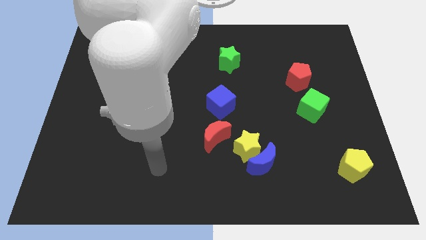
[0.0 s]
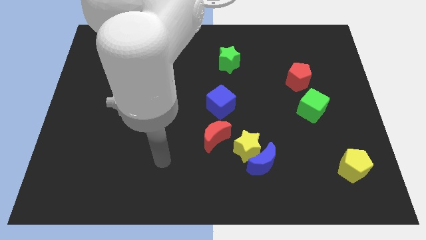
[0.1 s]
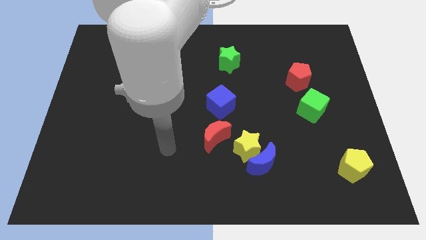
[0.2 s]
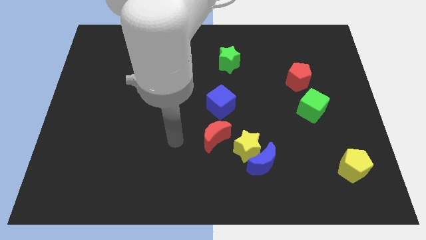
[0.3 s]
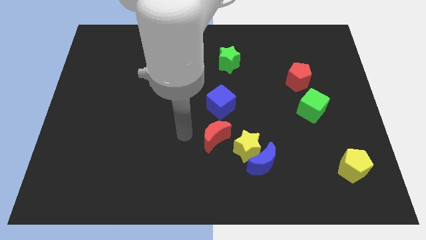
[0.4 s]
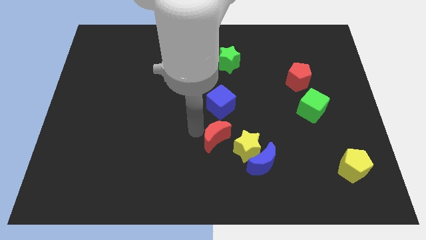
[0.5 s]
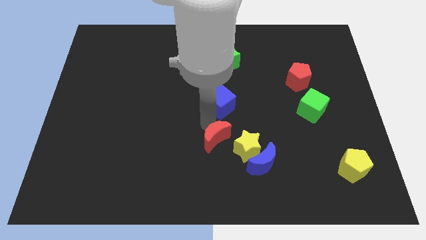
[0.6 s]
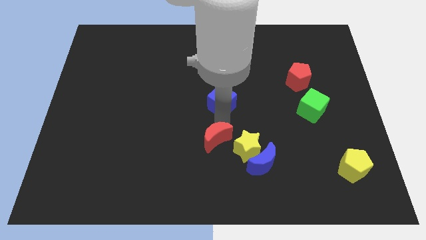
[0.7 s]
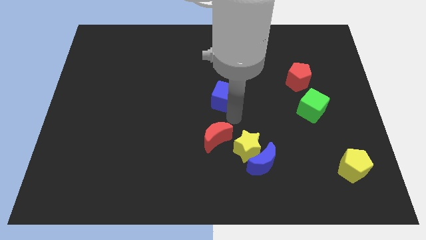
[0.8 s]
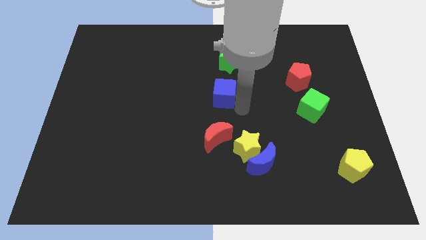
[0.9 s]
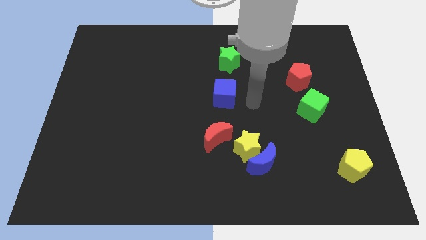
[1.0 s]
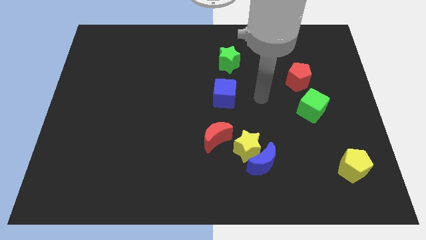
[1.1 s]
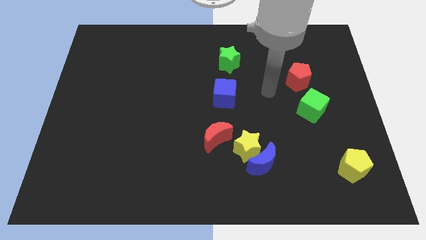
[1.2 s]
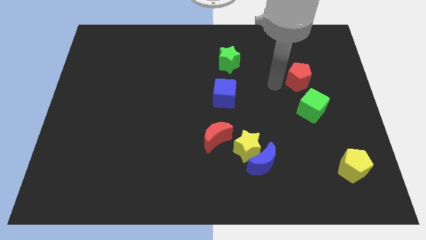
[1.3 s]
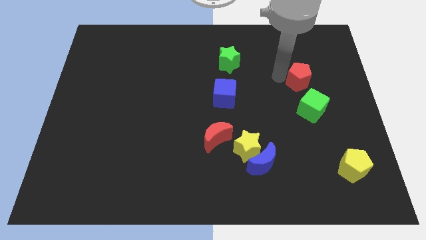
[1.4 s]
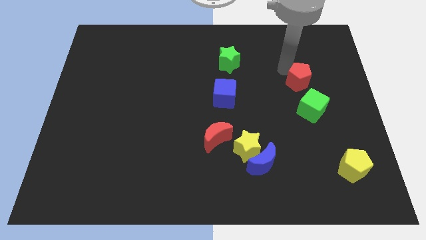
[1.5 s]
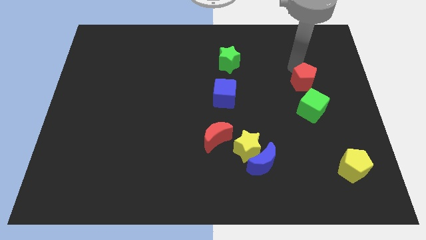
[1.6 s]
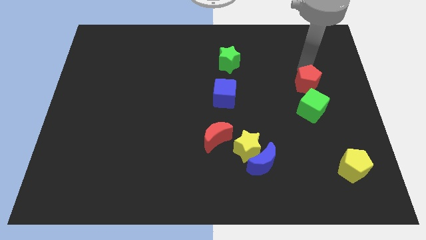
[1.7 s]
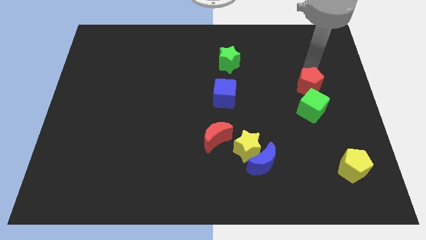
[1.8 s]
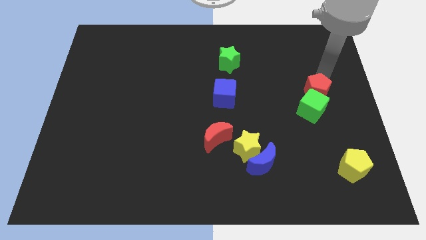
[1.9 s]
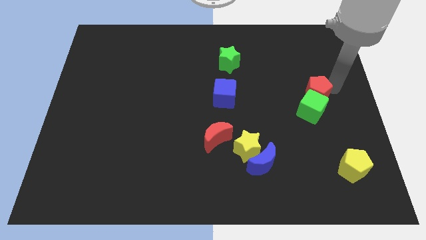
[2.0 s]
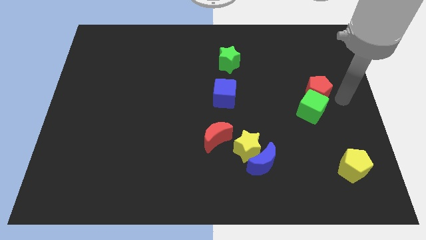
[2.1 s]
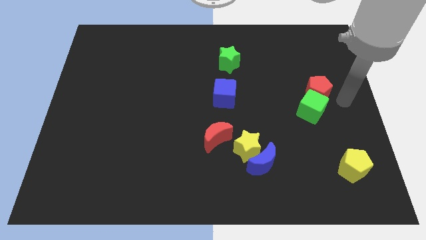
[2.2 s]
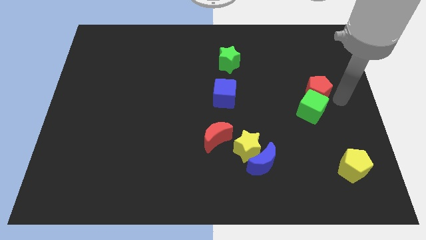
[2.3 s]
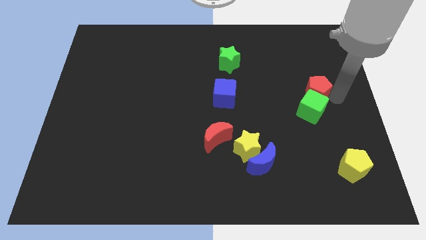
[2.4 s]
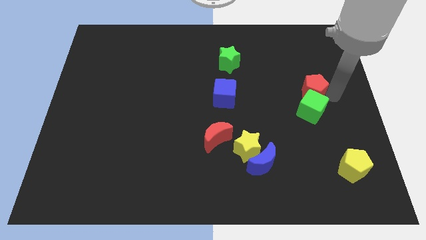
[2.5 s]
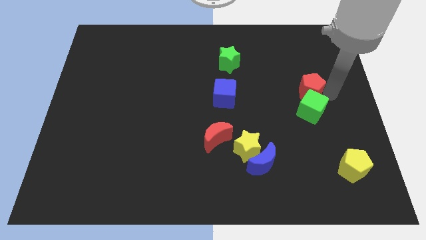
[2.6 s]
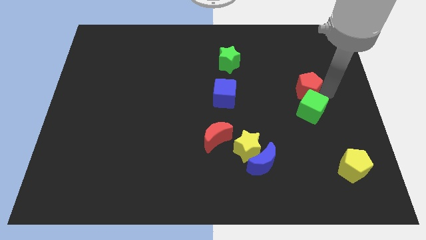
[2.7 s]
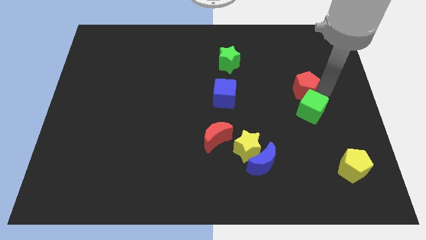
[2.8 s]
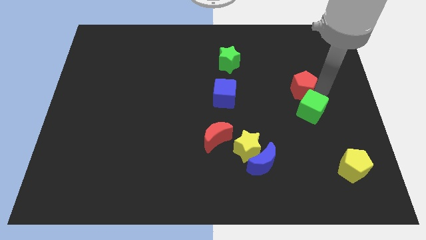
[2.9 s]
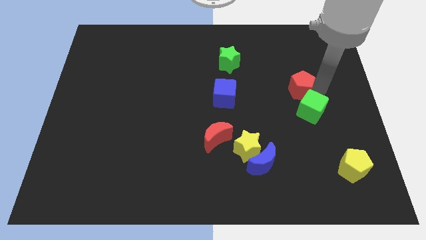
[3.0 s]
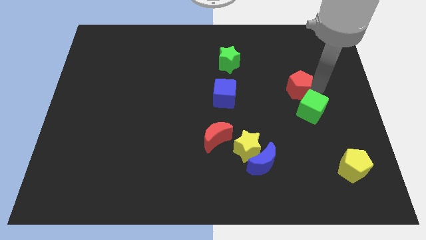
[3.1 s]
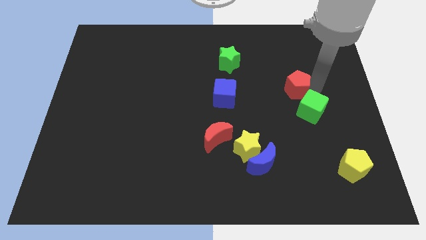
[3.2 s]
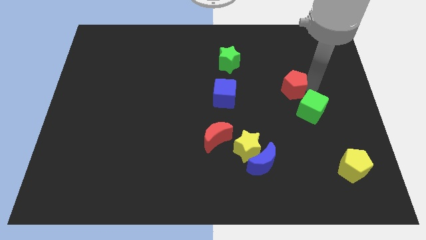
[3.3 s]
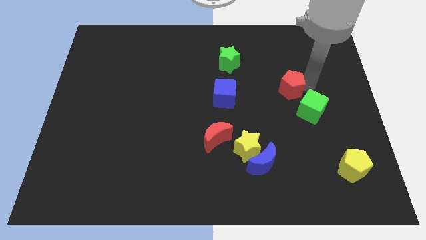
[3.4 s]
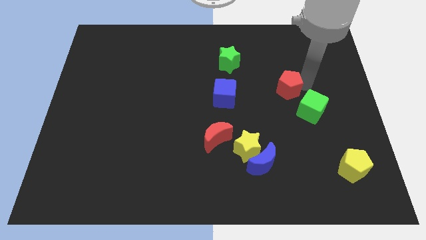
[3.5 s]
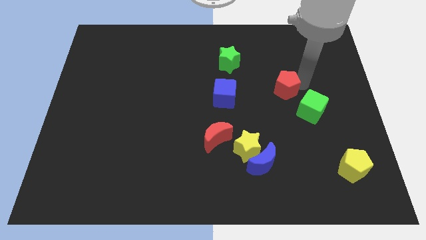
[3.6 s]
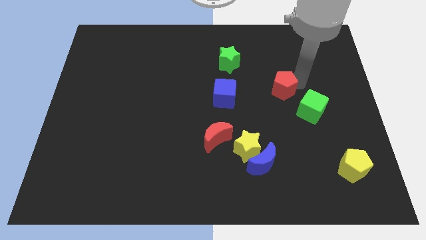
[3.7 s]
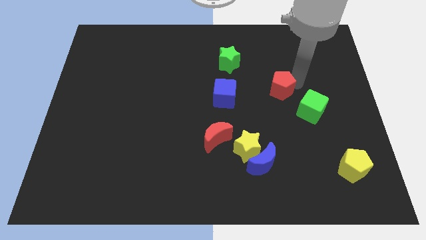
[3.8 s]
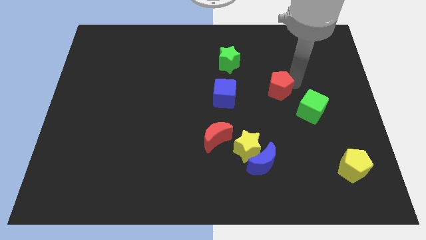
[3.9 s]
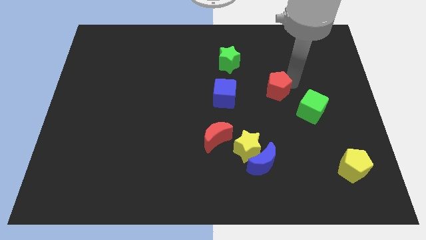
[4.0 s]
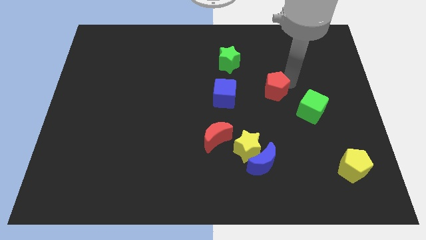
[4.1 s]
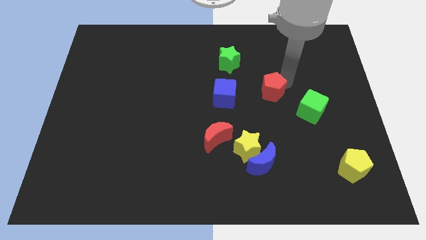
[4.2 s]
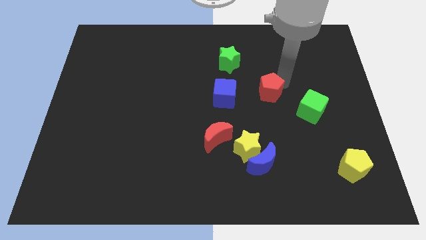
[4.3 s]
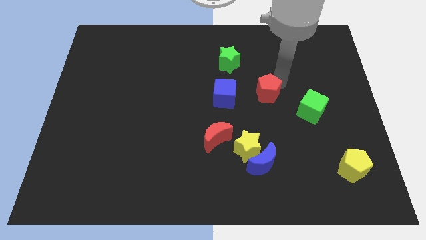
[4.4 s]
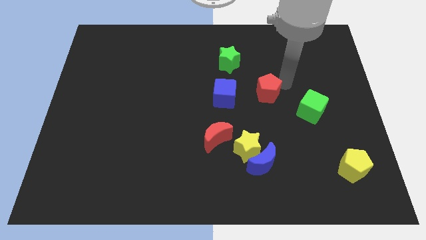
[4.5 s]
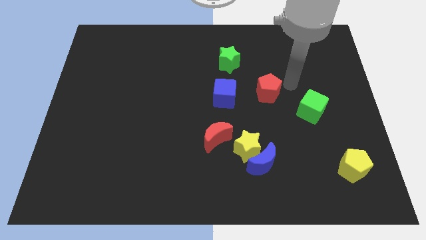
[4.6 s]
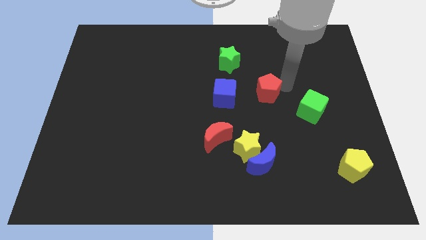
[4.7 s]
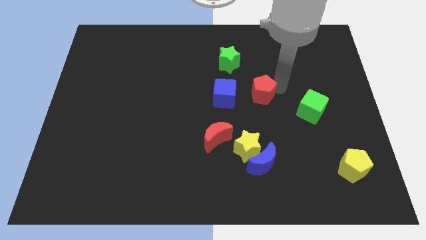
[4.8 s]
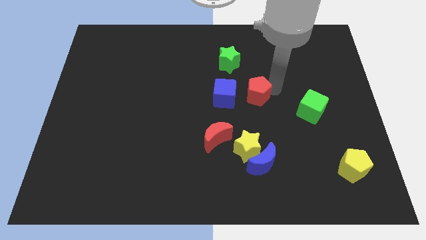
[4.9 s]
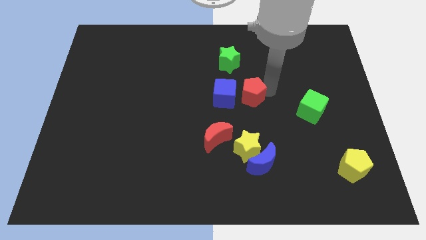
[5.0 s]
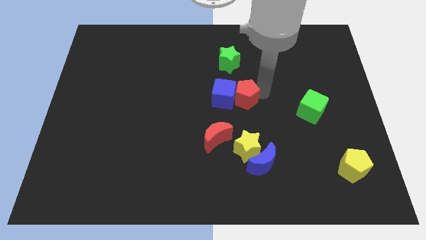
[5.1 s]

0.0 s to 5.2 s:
put the red pentagon towards the blue cube

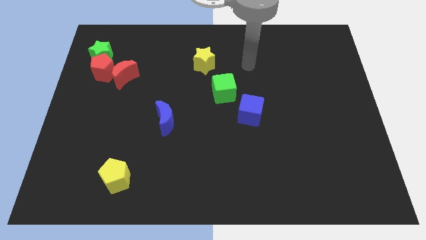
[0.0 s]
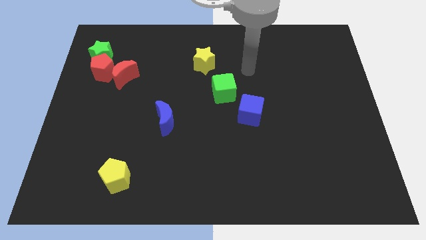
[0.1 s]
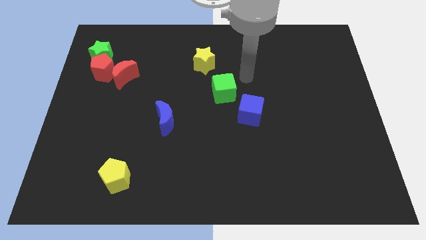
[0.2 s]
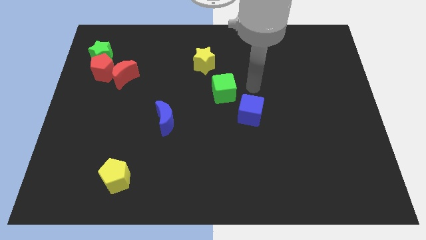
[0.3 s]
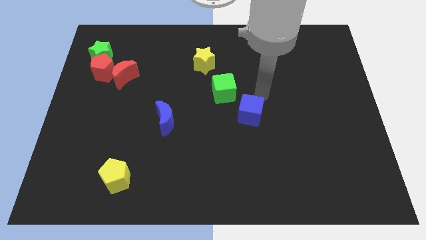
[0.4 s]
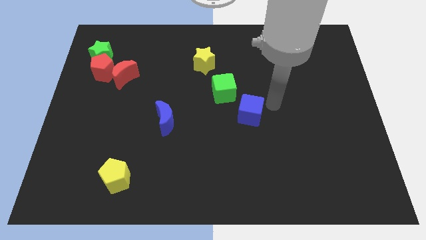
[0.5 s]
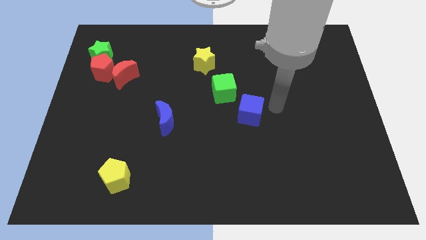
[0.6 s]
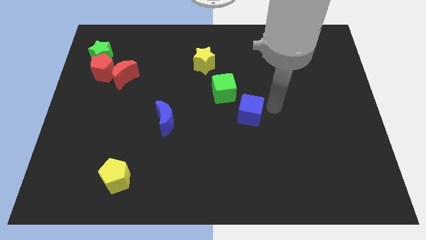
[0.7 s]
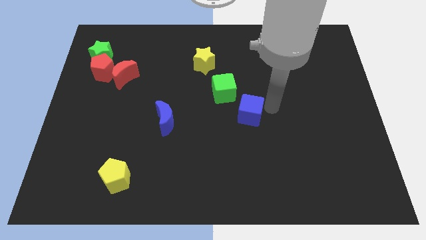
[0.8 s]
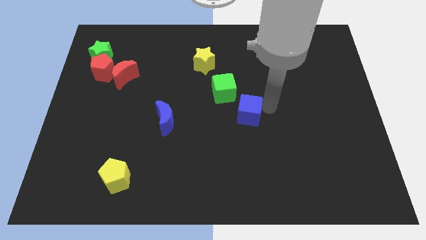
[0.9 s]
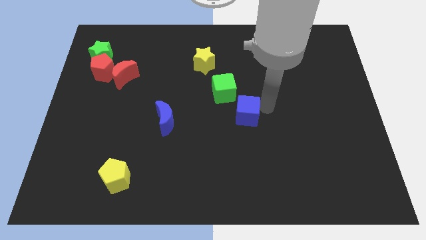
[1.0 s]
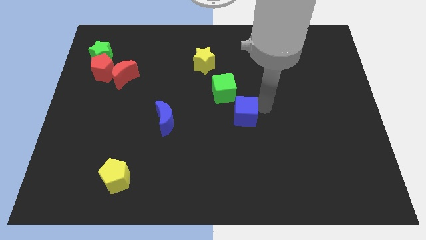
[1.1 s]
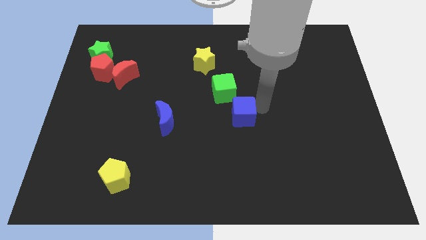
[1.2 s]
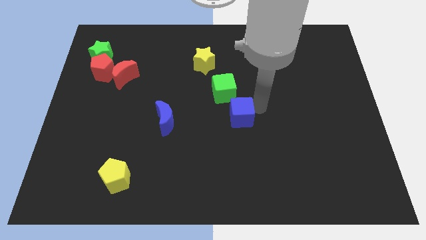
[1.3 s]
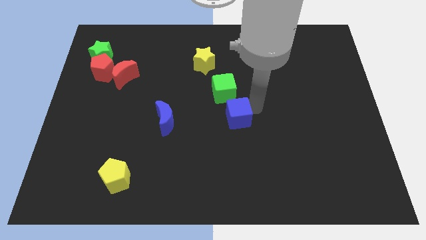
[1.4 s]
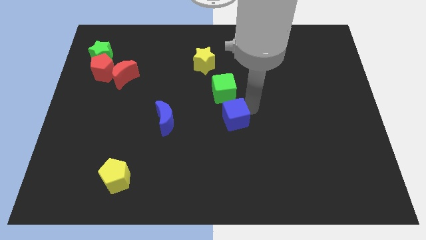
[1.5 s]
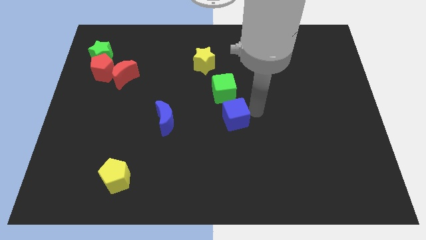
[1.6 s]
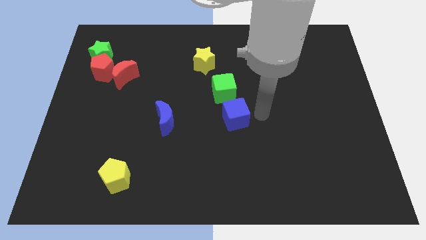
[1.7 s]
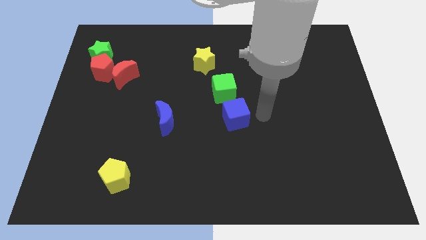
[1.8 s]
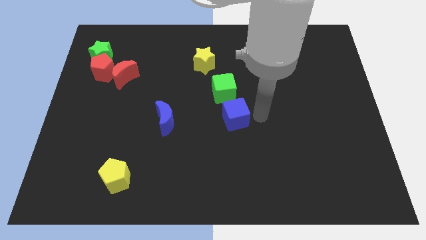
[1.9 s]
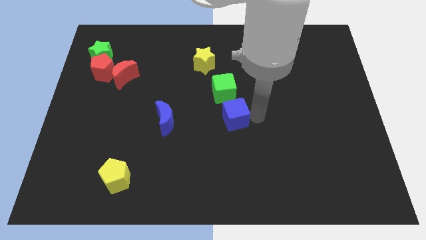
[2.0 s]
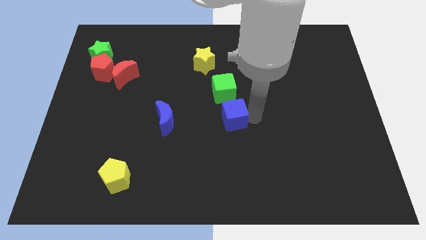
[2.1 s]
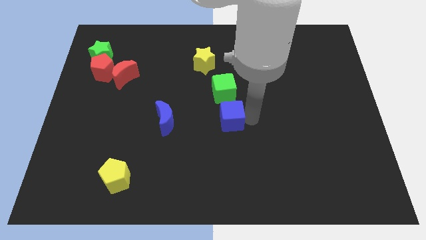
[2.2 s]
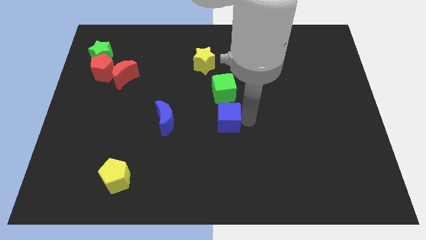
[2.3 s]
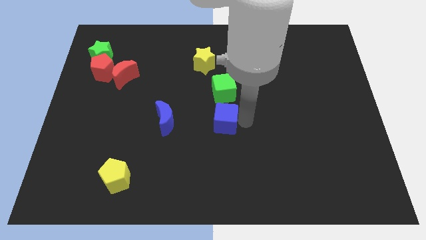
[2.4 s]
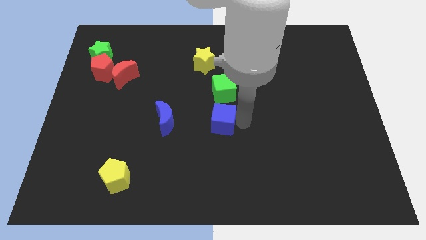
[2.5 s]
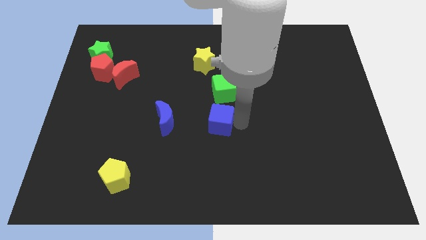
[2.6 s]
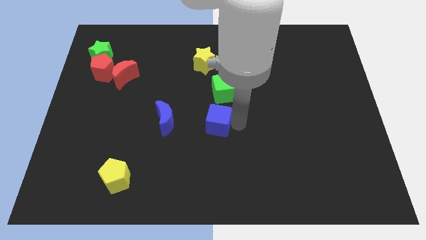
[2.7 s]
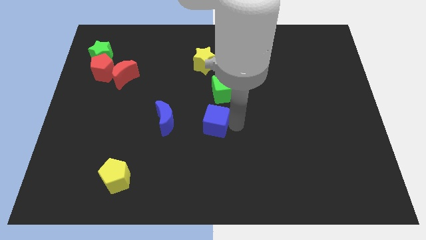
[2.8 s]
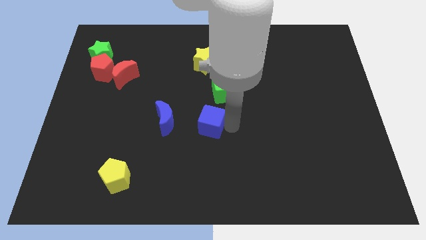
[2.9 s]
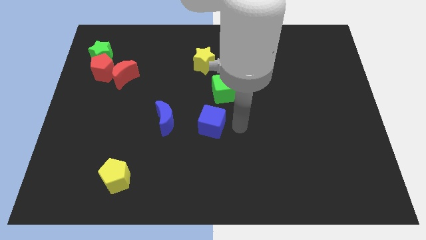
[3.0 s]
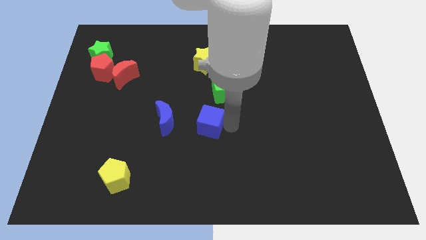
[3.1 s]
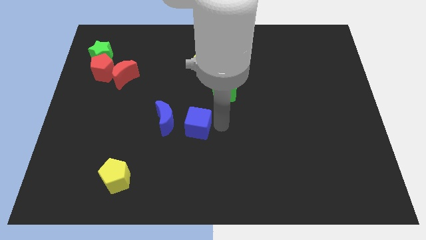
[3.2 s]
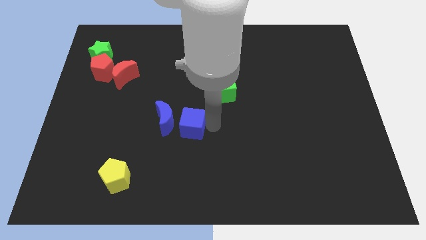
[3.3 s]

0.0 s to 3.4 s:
slide the blue cube to the blue moon
